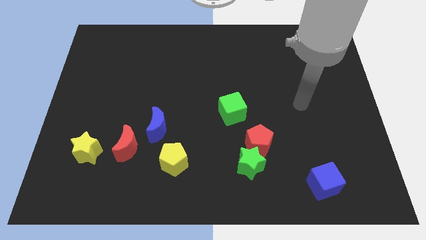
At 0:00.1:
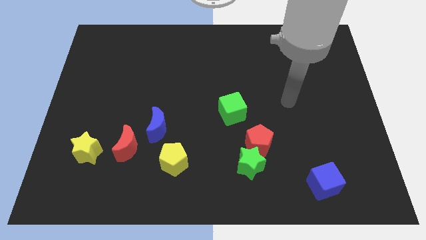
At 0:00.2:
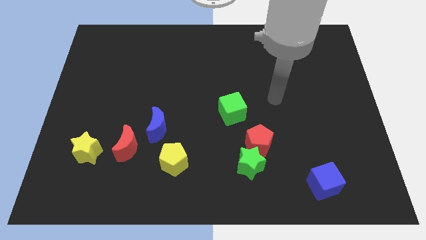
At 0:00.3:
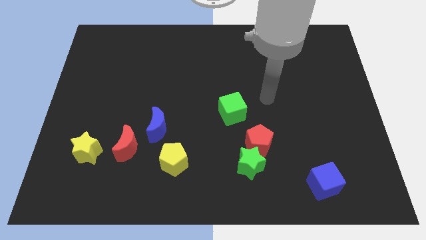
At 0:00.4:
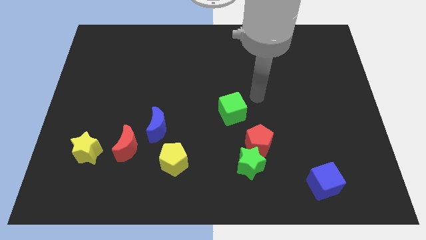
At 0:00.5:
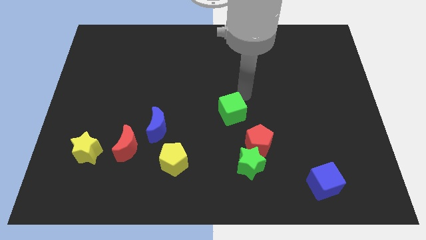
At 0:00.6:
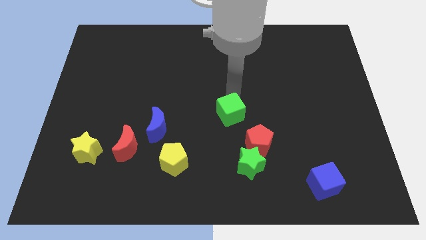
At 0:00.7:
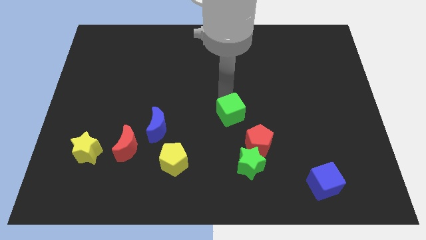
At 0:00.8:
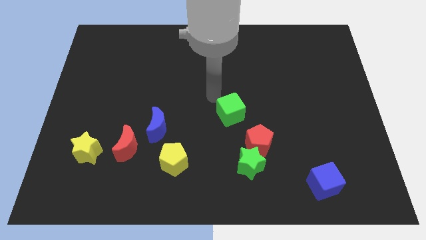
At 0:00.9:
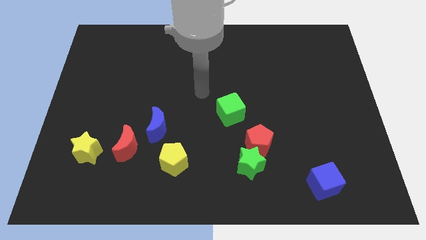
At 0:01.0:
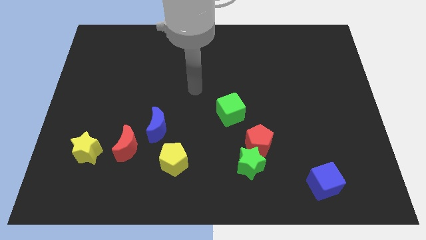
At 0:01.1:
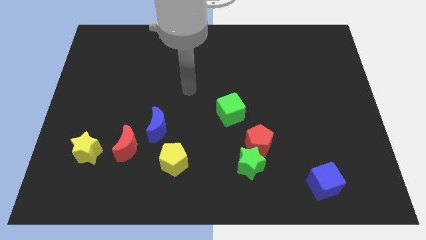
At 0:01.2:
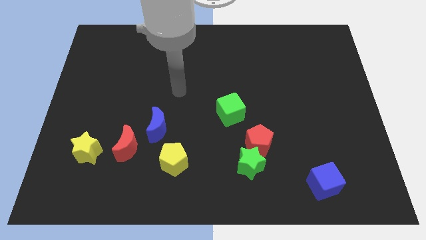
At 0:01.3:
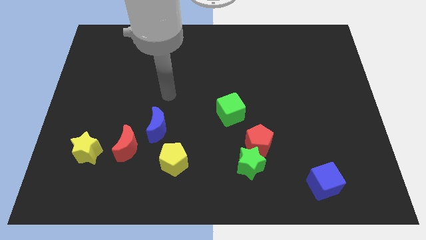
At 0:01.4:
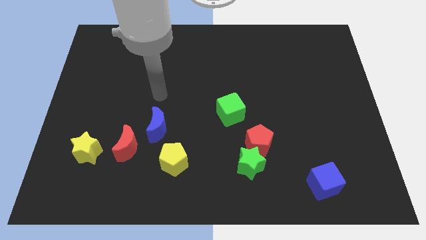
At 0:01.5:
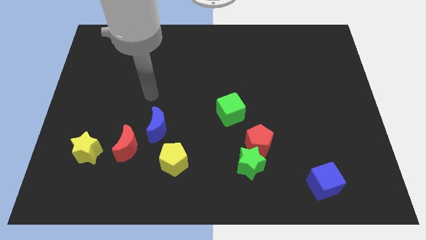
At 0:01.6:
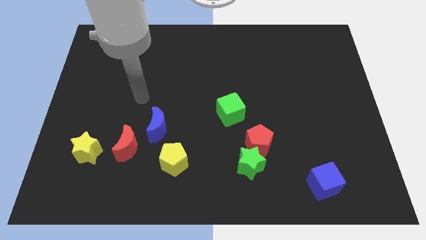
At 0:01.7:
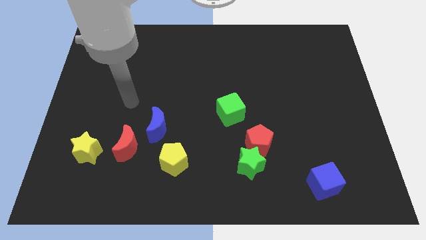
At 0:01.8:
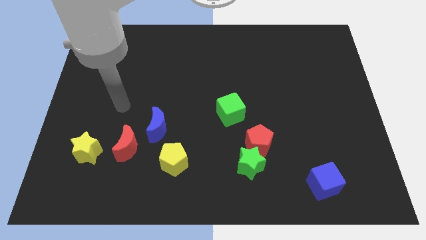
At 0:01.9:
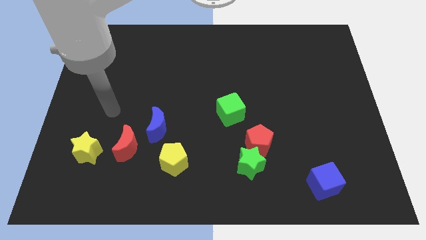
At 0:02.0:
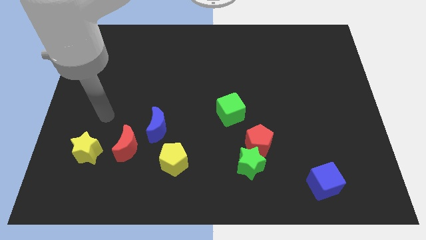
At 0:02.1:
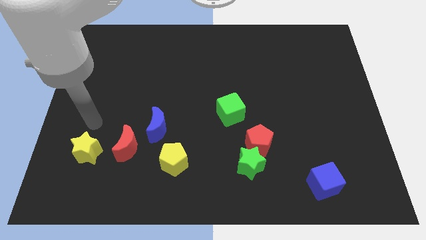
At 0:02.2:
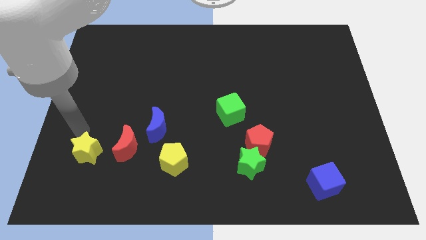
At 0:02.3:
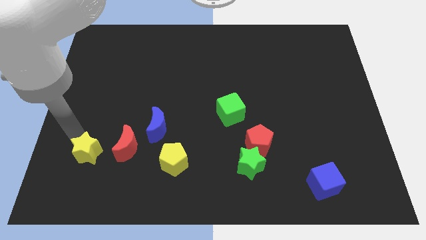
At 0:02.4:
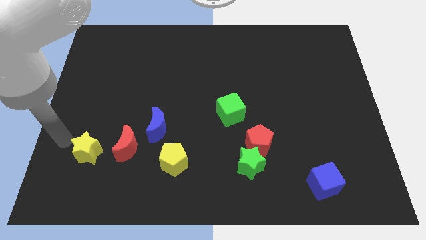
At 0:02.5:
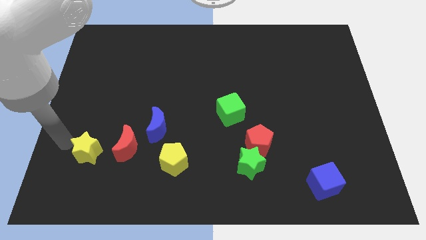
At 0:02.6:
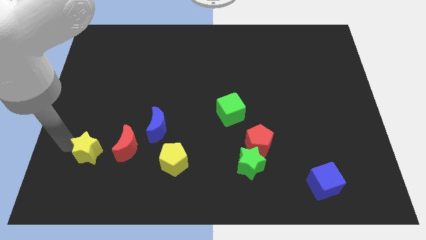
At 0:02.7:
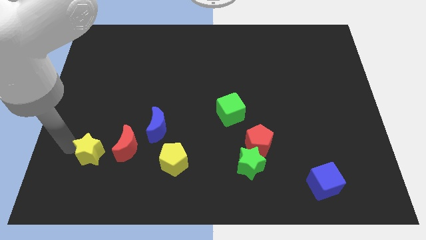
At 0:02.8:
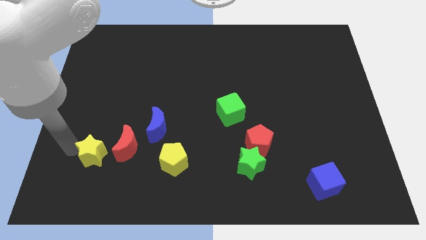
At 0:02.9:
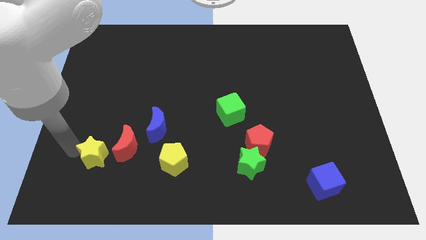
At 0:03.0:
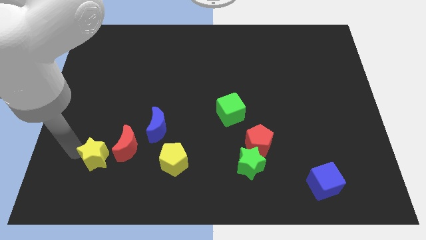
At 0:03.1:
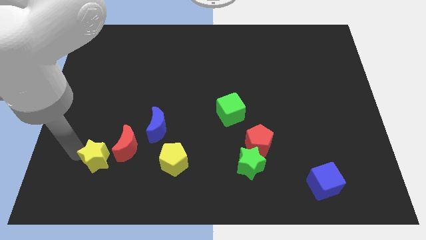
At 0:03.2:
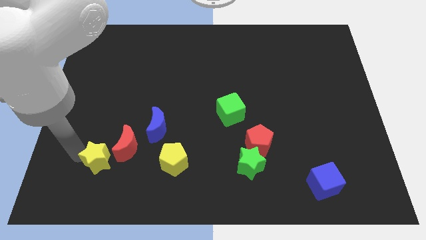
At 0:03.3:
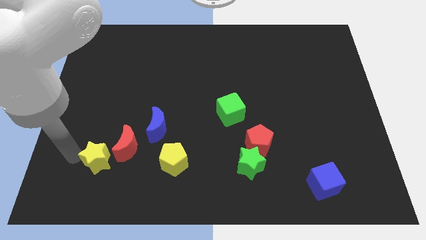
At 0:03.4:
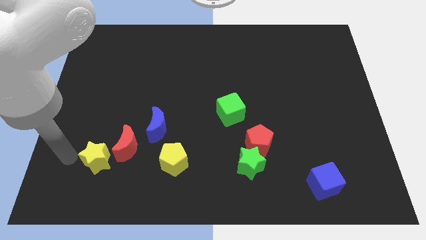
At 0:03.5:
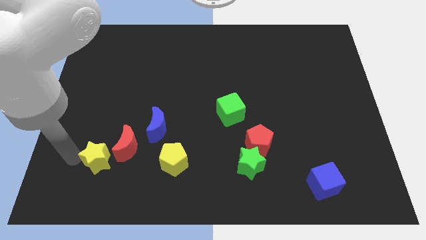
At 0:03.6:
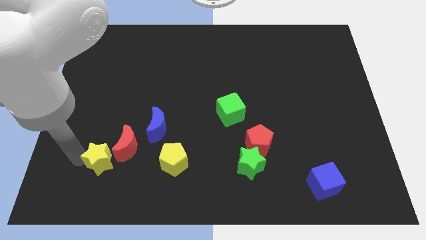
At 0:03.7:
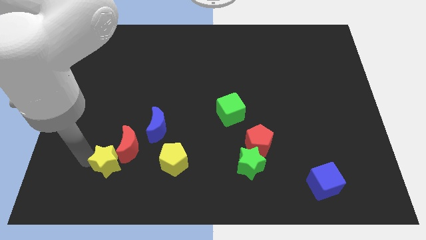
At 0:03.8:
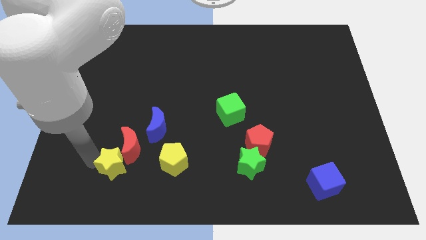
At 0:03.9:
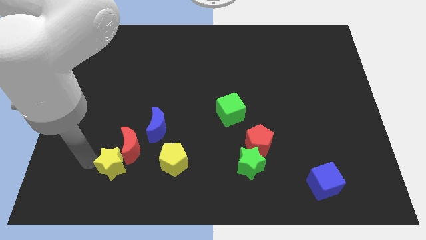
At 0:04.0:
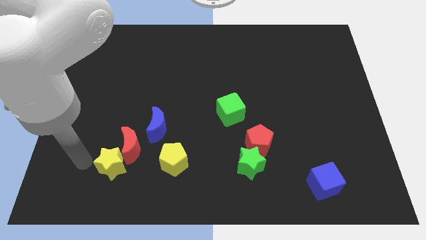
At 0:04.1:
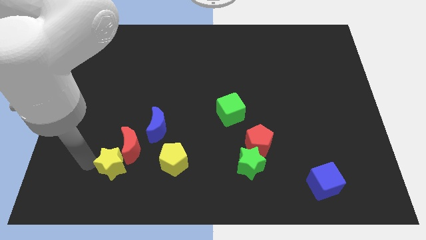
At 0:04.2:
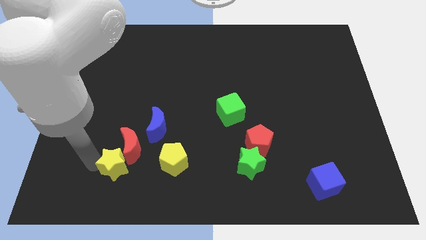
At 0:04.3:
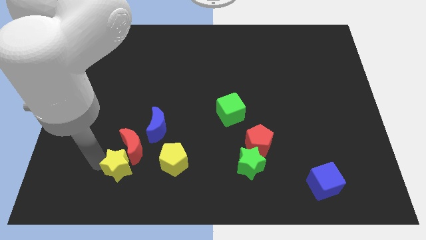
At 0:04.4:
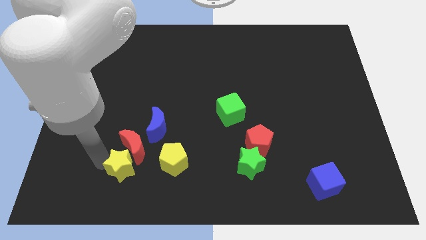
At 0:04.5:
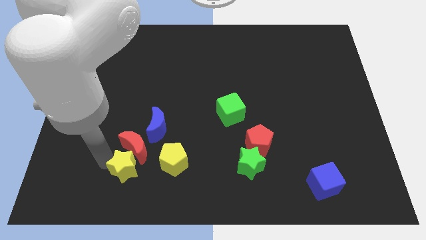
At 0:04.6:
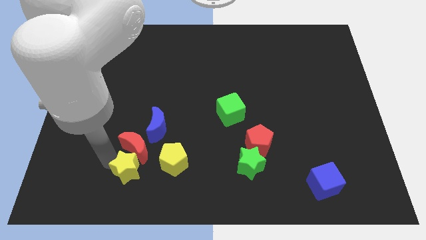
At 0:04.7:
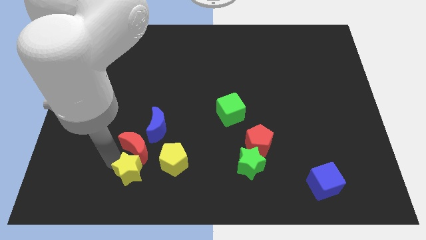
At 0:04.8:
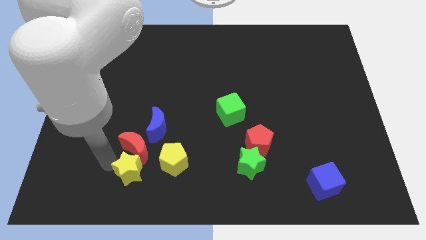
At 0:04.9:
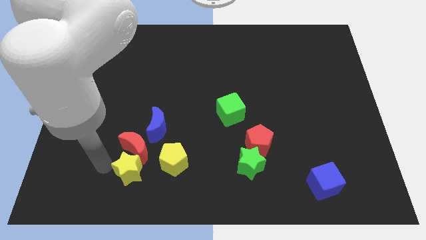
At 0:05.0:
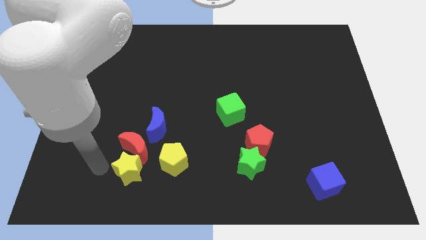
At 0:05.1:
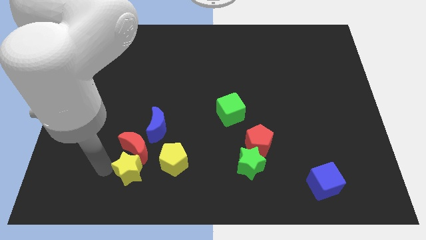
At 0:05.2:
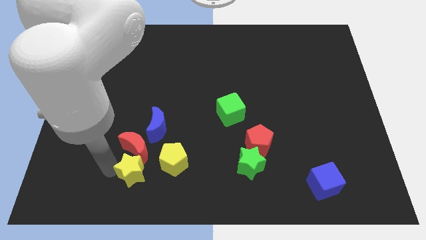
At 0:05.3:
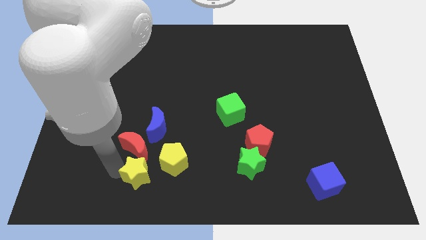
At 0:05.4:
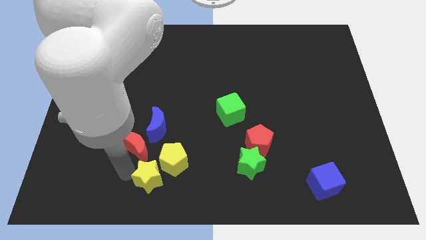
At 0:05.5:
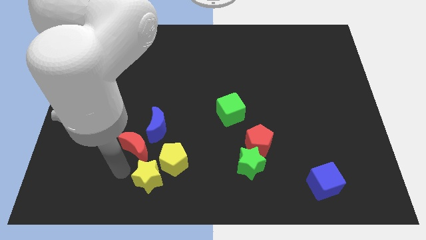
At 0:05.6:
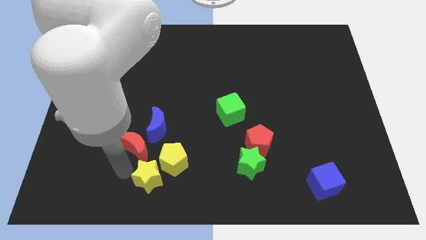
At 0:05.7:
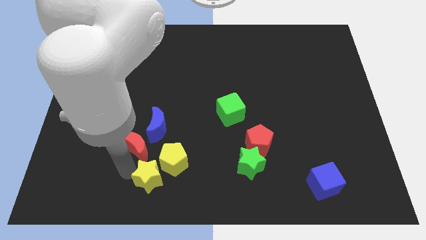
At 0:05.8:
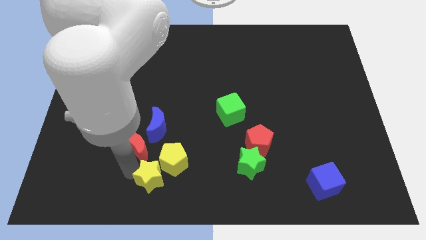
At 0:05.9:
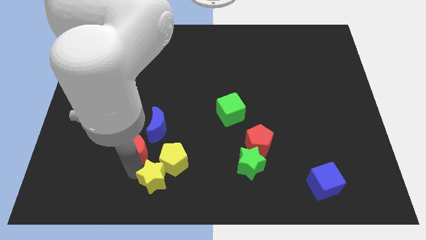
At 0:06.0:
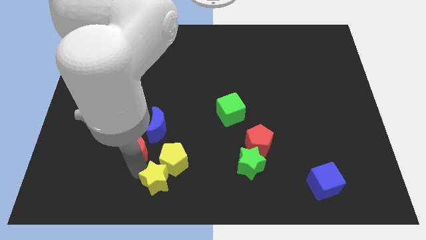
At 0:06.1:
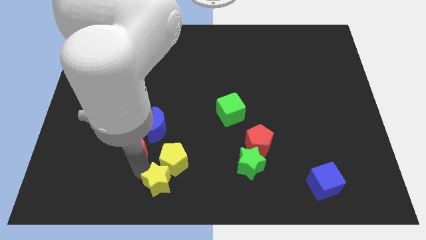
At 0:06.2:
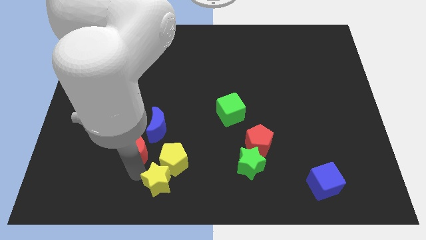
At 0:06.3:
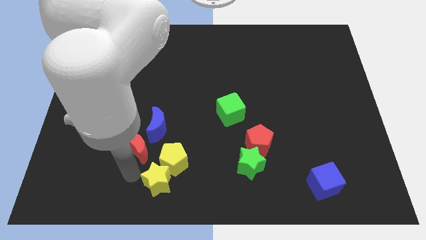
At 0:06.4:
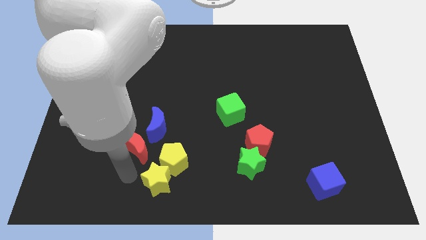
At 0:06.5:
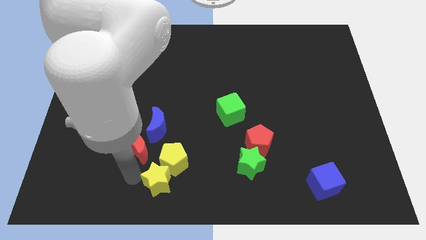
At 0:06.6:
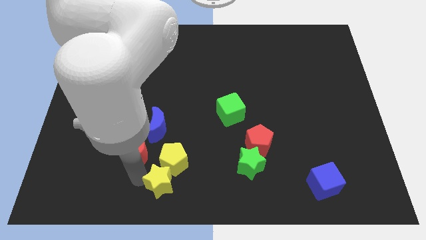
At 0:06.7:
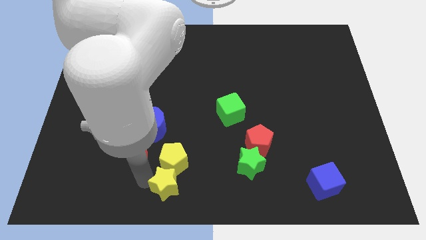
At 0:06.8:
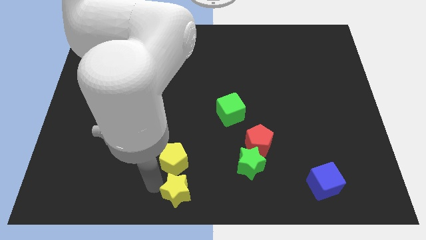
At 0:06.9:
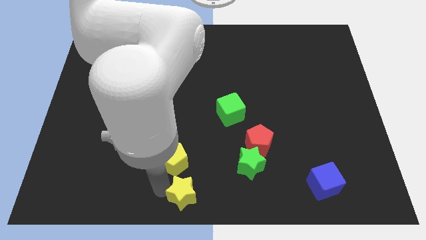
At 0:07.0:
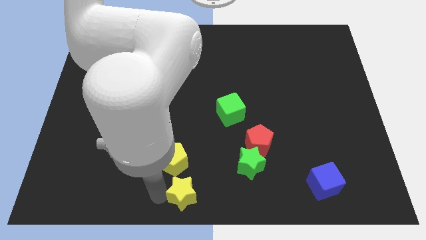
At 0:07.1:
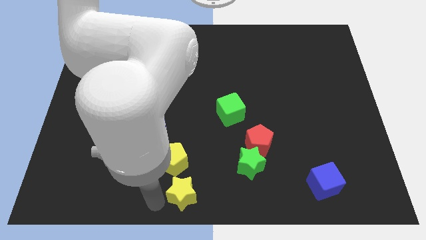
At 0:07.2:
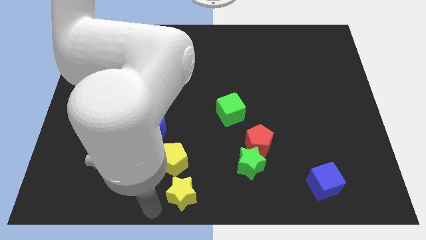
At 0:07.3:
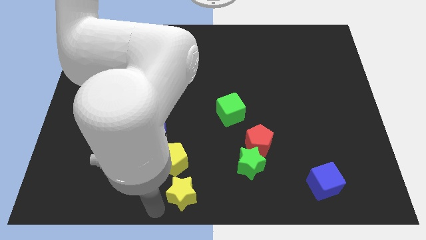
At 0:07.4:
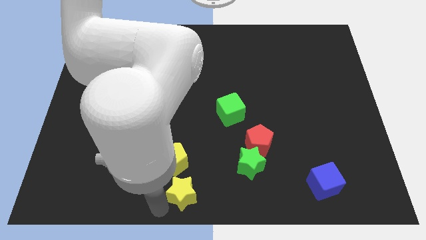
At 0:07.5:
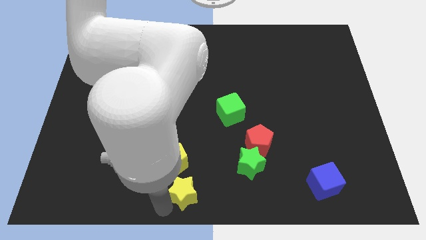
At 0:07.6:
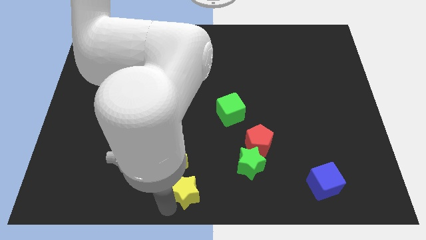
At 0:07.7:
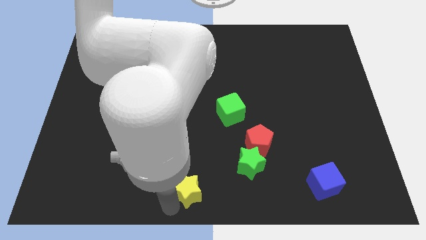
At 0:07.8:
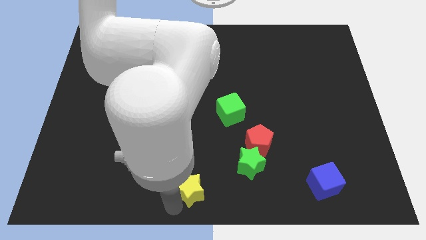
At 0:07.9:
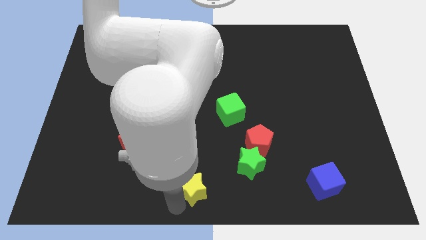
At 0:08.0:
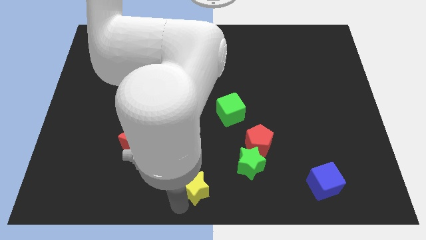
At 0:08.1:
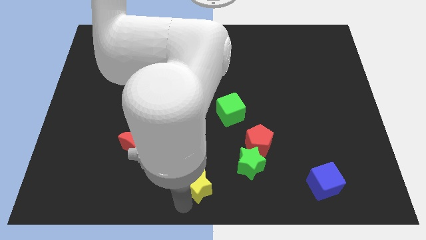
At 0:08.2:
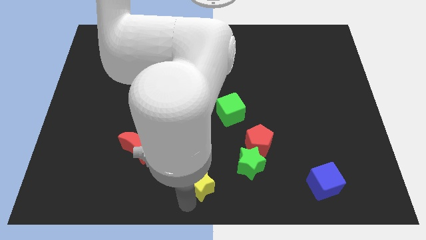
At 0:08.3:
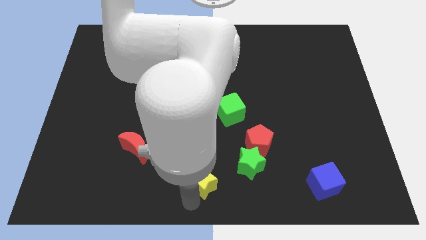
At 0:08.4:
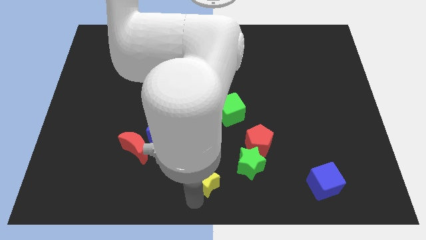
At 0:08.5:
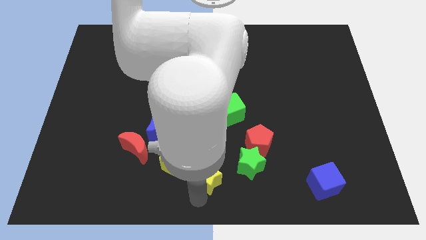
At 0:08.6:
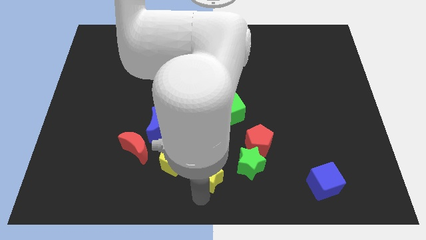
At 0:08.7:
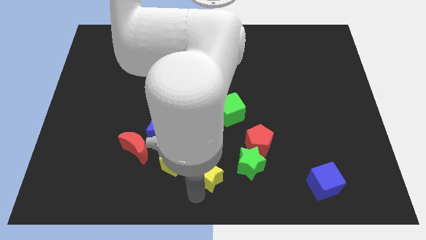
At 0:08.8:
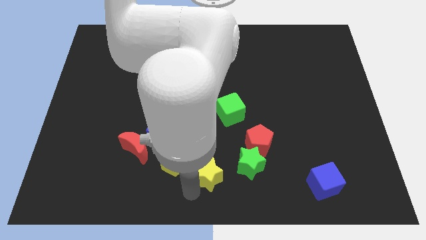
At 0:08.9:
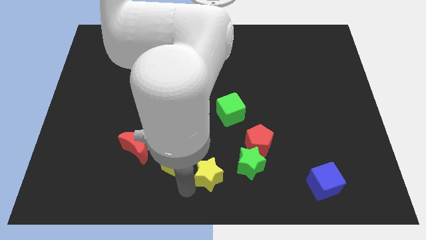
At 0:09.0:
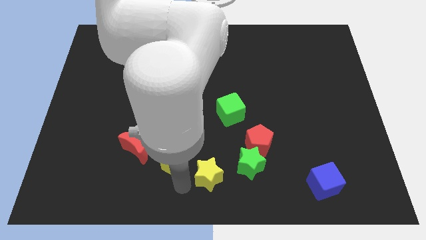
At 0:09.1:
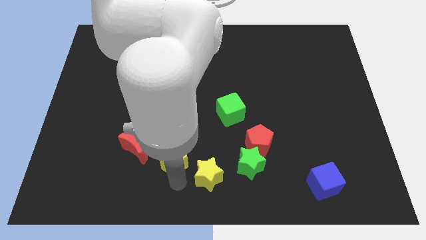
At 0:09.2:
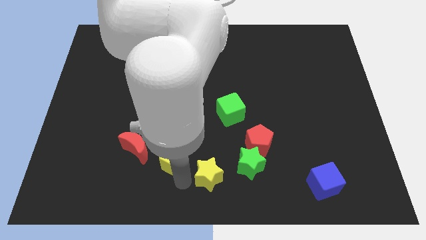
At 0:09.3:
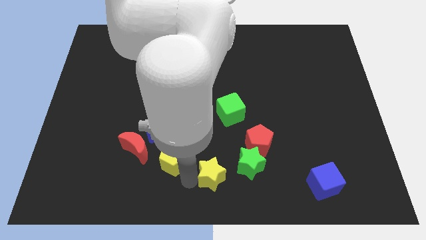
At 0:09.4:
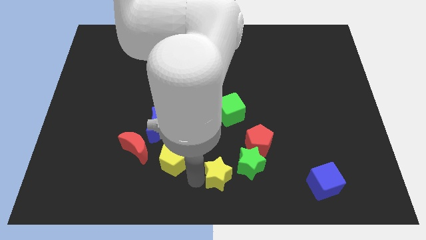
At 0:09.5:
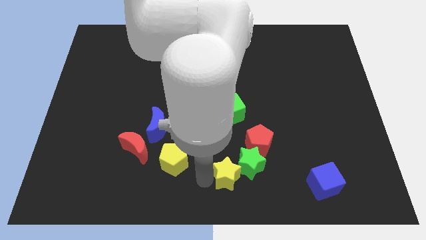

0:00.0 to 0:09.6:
move the yellow star to the green star
